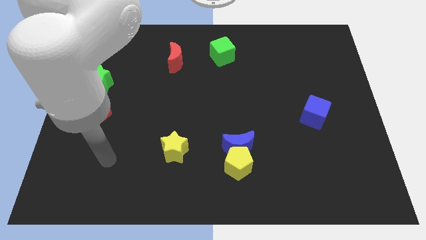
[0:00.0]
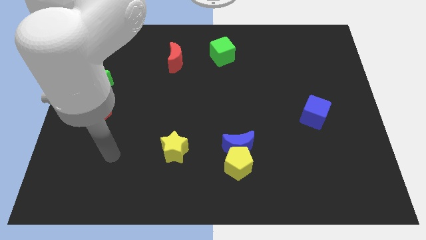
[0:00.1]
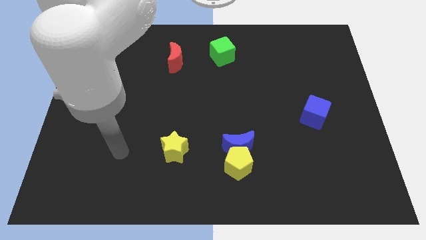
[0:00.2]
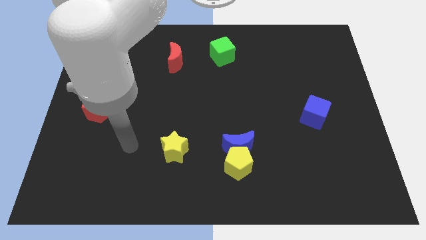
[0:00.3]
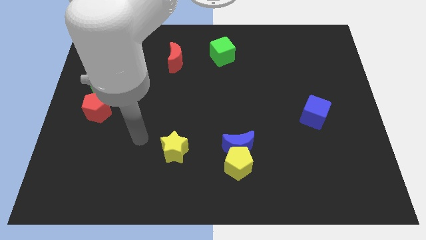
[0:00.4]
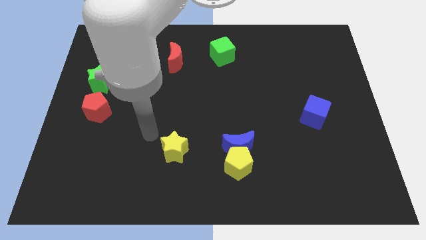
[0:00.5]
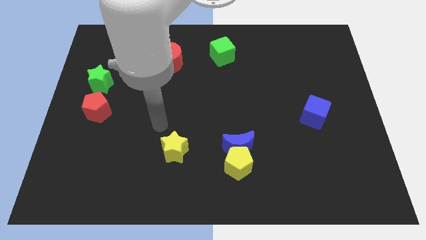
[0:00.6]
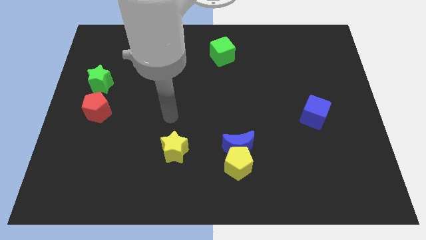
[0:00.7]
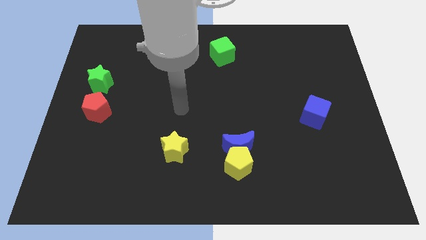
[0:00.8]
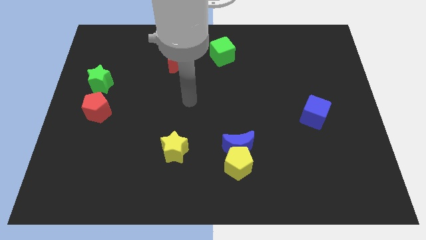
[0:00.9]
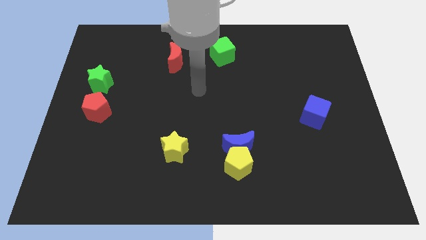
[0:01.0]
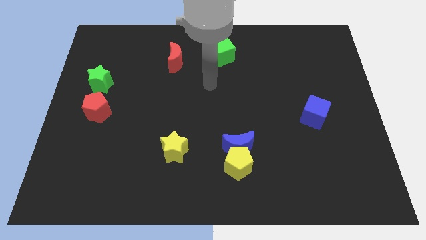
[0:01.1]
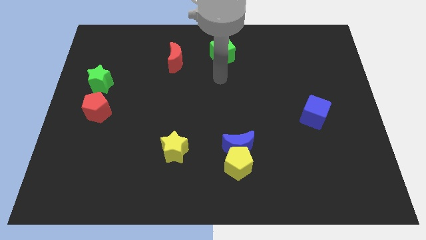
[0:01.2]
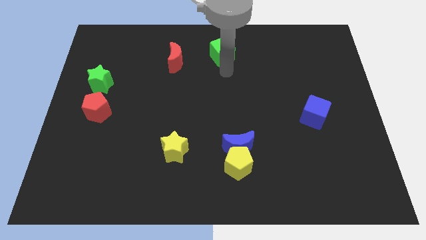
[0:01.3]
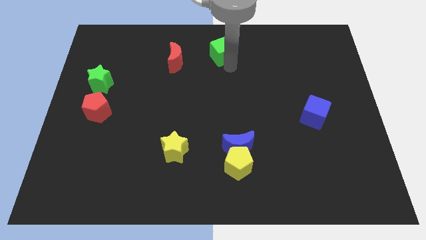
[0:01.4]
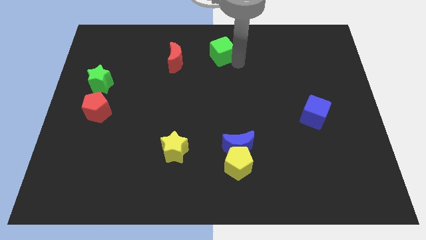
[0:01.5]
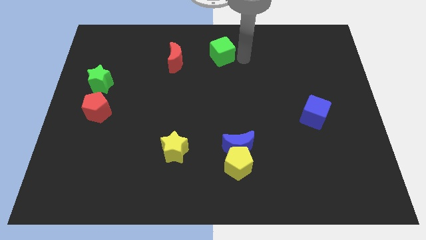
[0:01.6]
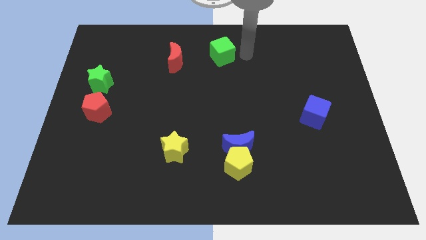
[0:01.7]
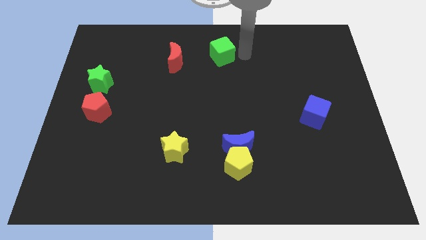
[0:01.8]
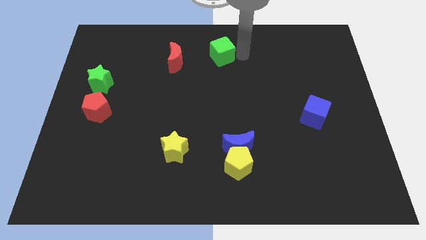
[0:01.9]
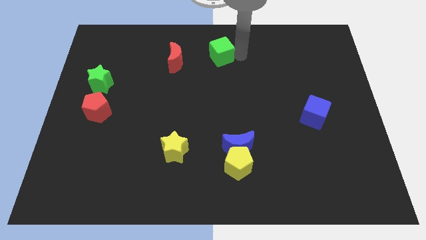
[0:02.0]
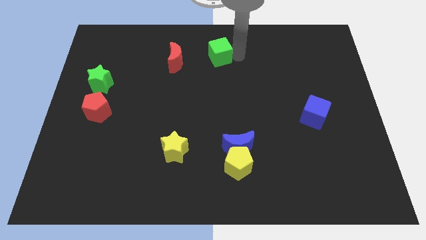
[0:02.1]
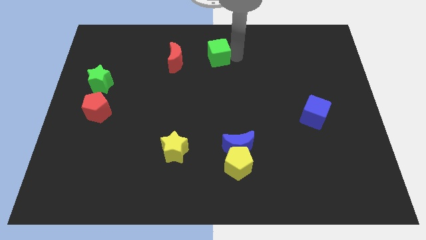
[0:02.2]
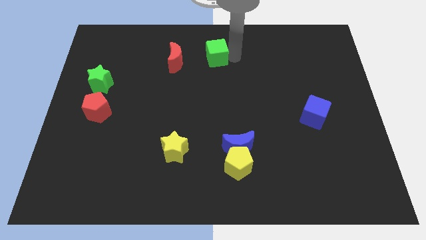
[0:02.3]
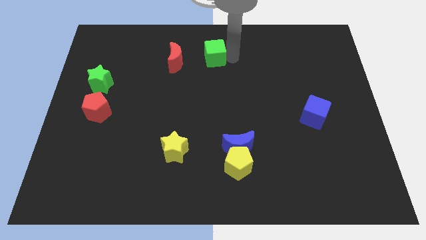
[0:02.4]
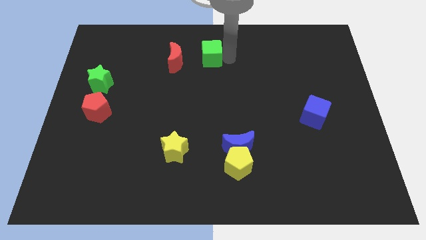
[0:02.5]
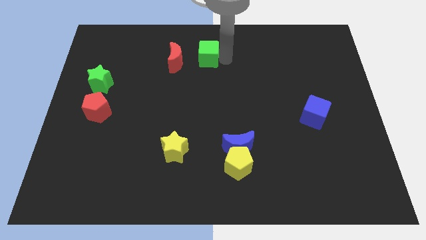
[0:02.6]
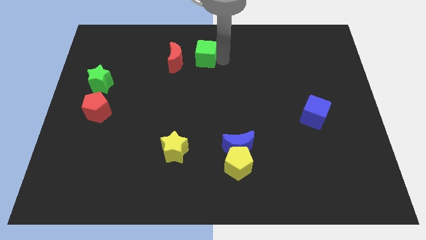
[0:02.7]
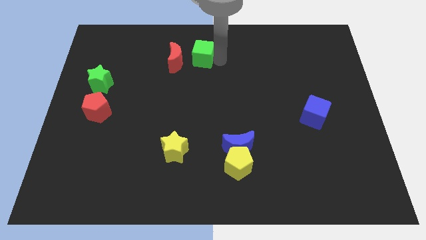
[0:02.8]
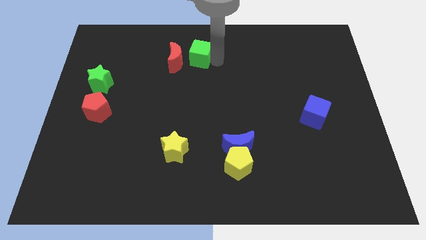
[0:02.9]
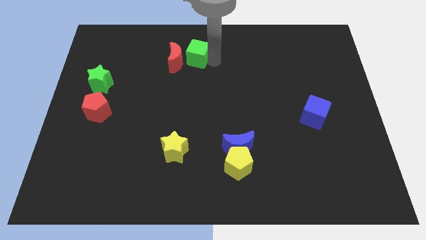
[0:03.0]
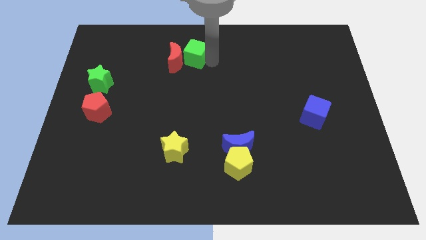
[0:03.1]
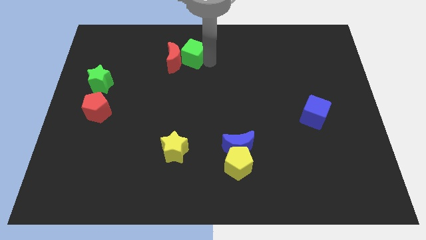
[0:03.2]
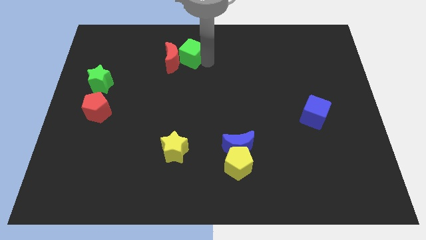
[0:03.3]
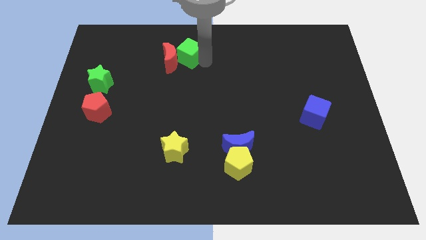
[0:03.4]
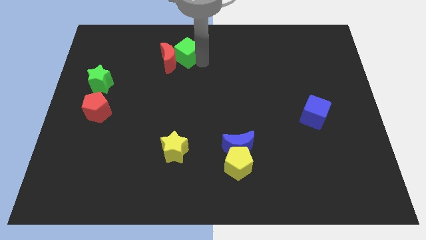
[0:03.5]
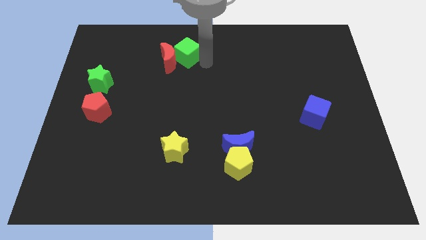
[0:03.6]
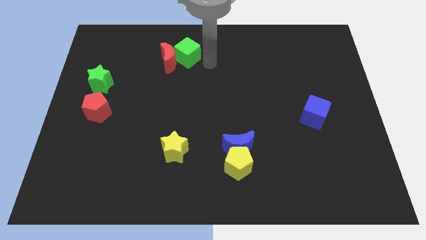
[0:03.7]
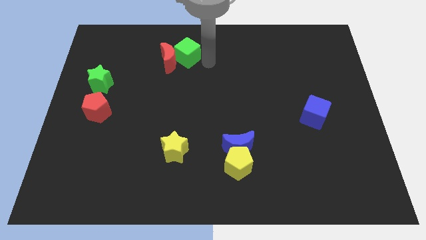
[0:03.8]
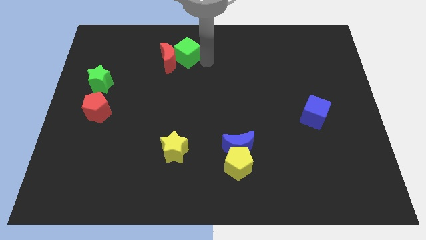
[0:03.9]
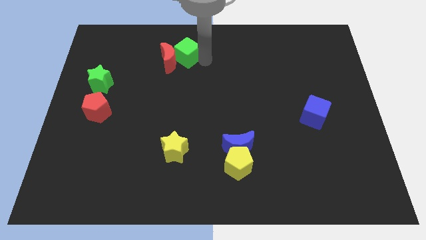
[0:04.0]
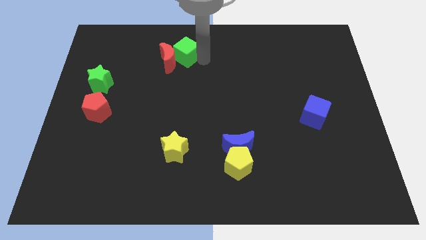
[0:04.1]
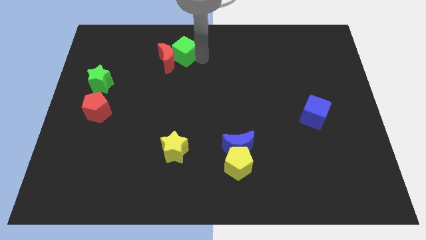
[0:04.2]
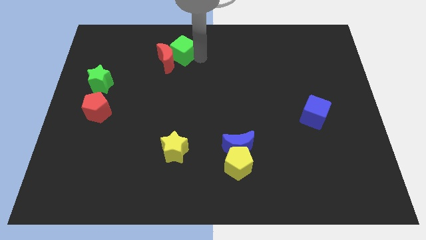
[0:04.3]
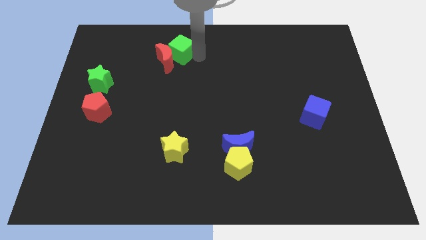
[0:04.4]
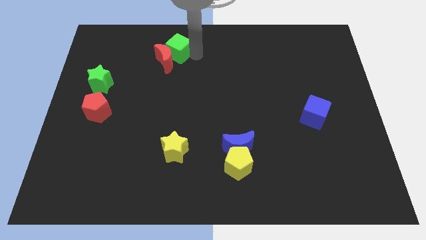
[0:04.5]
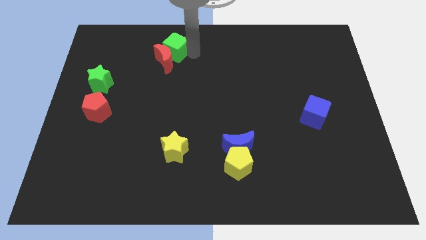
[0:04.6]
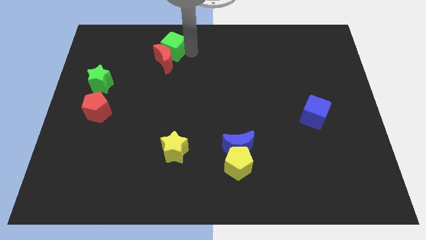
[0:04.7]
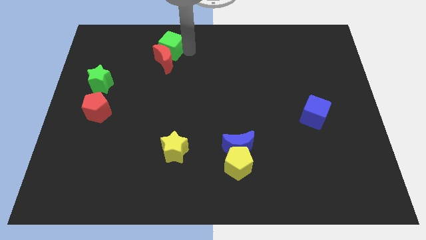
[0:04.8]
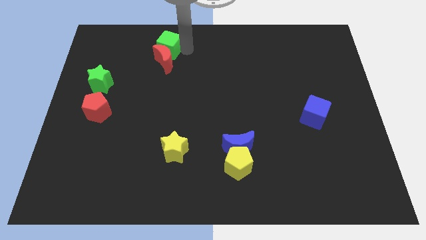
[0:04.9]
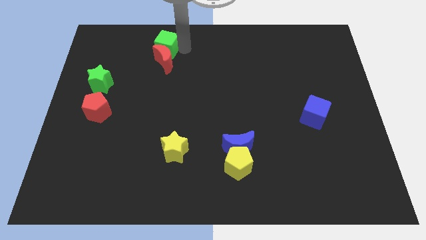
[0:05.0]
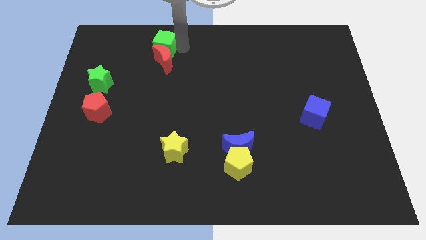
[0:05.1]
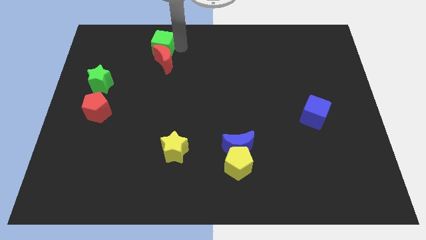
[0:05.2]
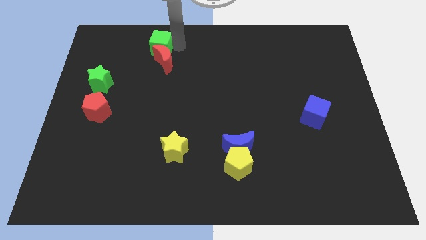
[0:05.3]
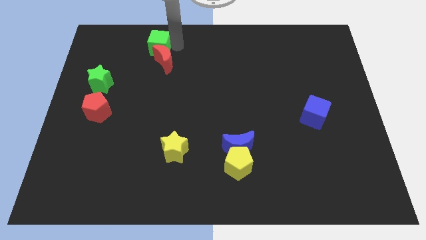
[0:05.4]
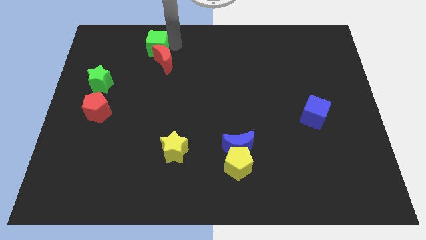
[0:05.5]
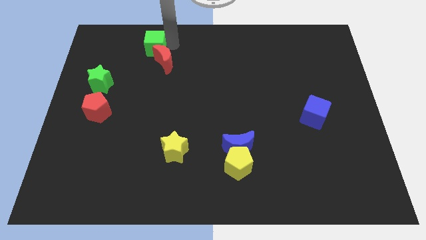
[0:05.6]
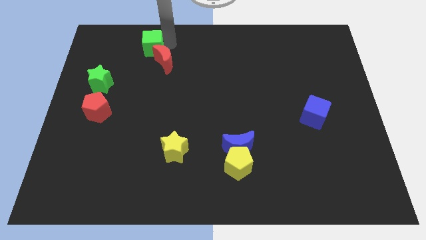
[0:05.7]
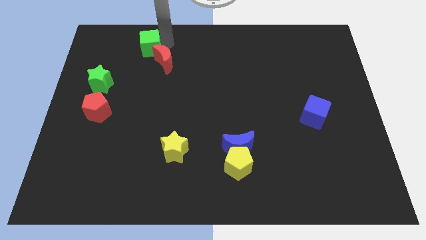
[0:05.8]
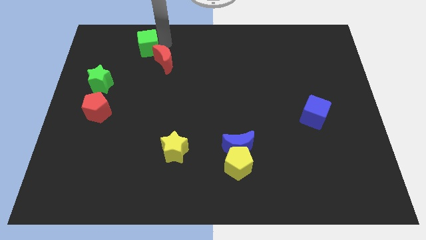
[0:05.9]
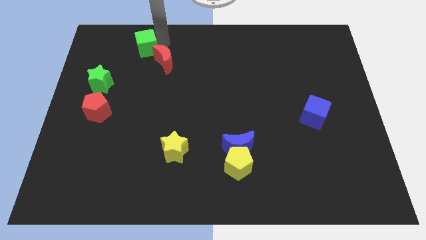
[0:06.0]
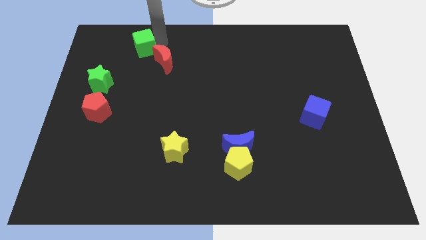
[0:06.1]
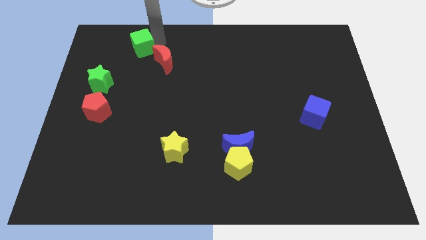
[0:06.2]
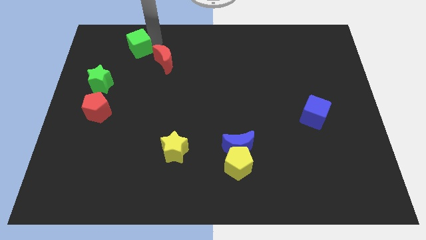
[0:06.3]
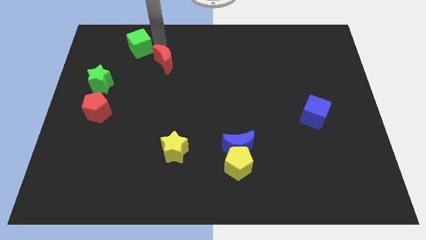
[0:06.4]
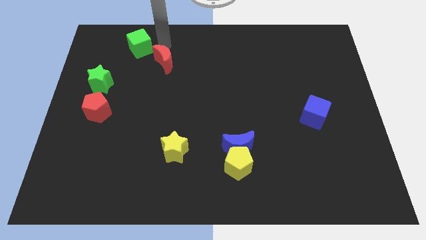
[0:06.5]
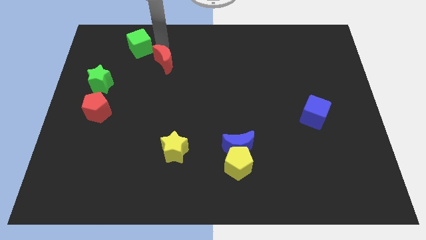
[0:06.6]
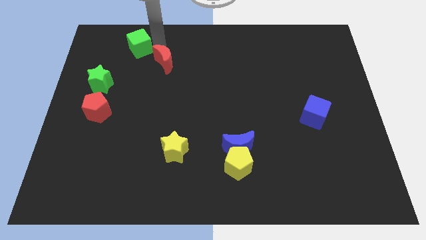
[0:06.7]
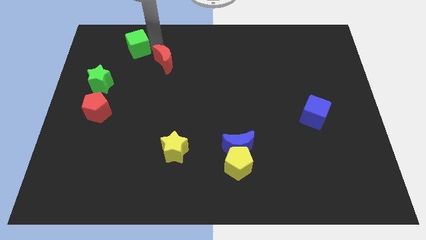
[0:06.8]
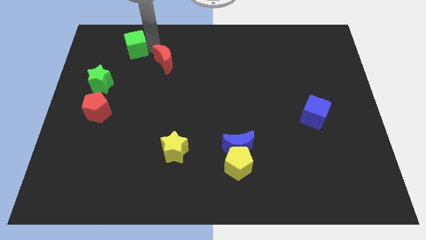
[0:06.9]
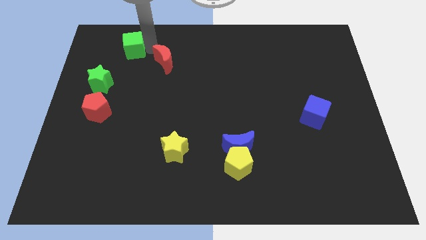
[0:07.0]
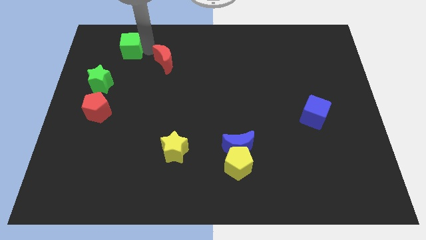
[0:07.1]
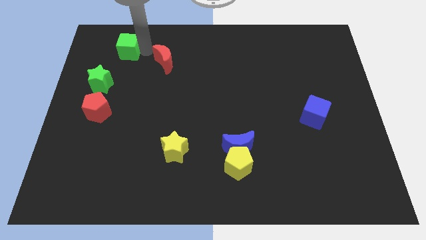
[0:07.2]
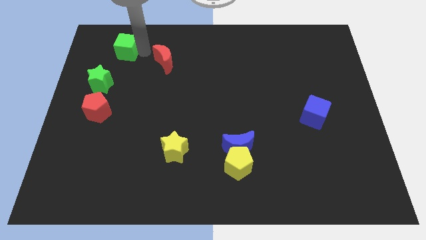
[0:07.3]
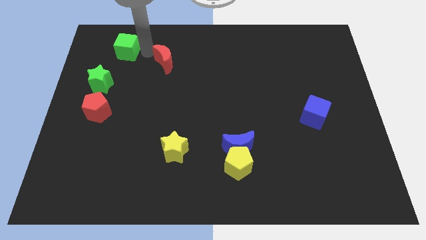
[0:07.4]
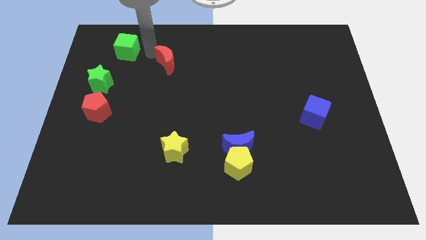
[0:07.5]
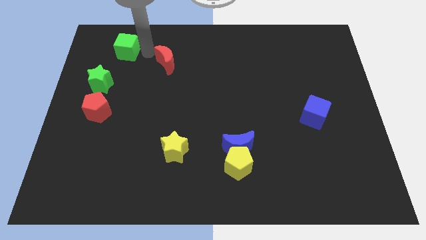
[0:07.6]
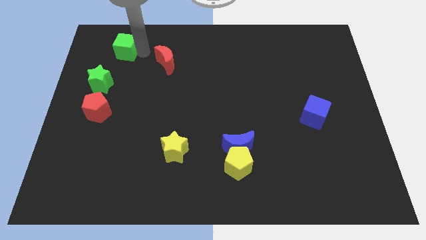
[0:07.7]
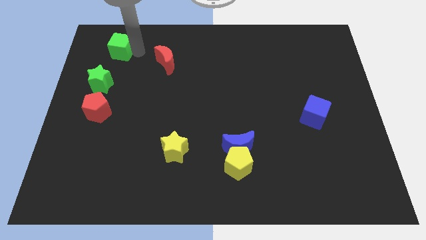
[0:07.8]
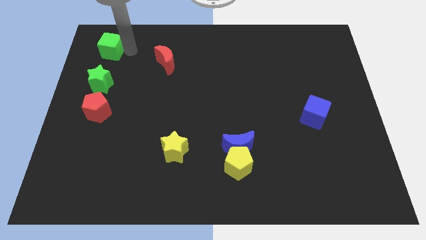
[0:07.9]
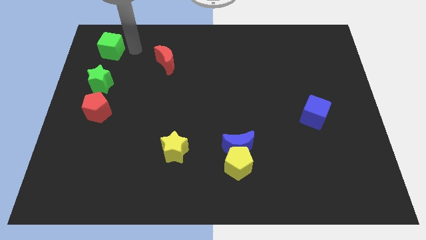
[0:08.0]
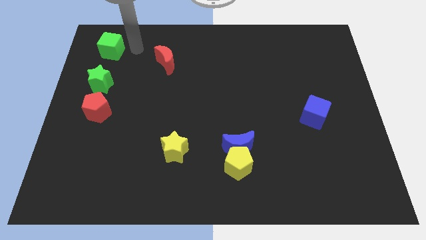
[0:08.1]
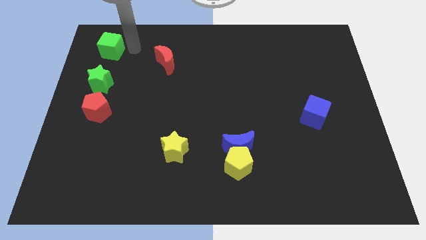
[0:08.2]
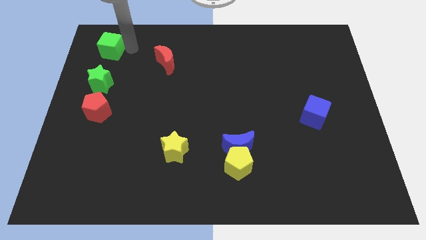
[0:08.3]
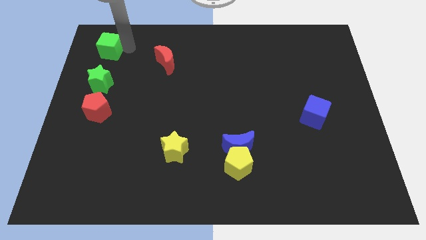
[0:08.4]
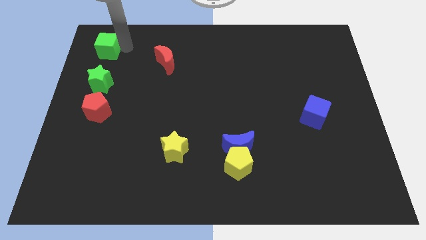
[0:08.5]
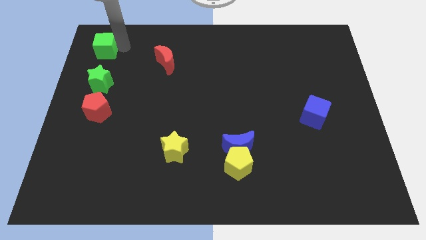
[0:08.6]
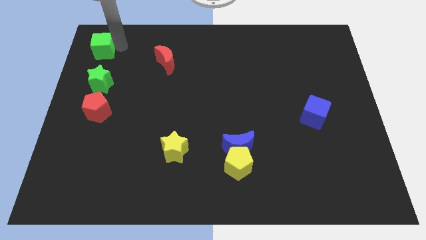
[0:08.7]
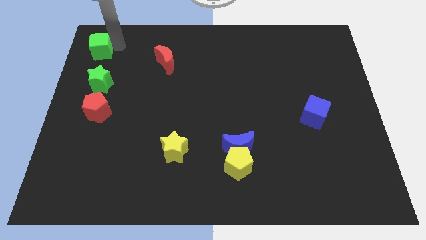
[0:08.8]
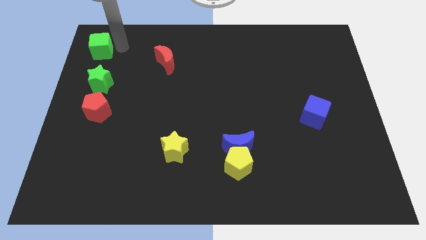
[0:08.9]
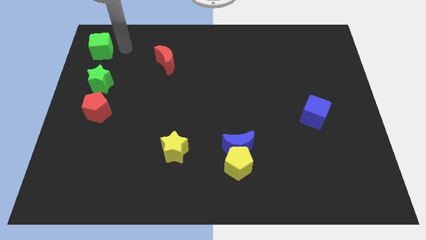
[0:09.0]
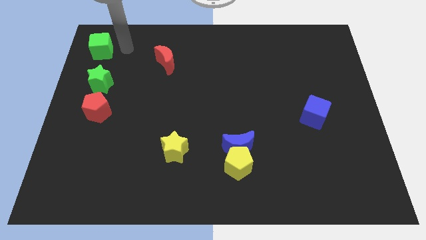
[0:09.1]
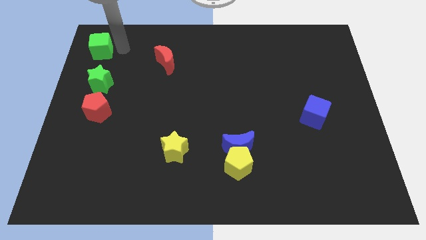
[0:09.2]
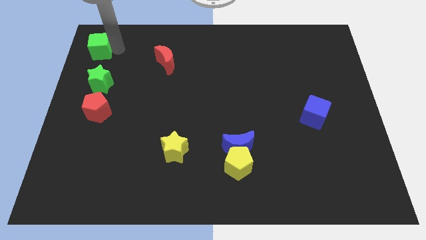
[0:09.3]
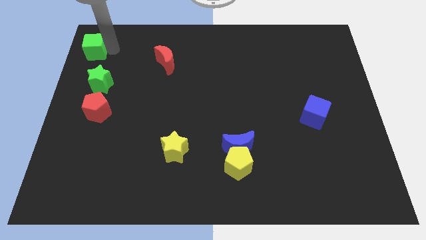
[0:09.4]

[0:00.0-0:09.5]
push the green cube to the upper left corner
